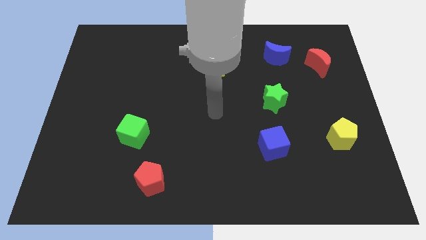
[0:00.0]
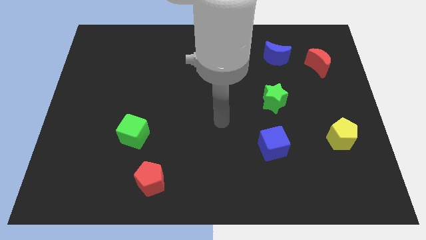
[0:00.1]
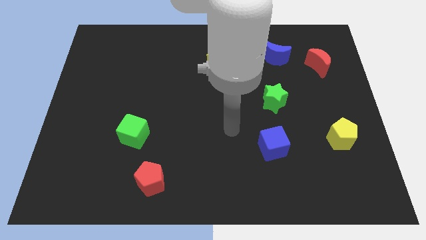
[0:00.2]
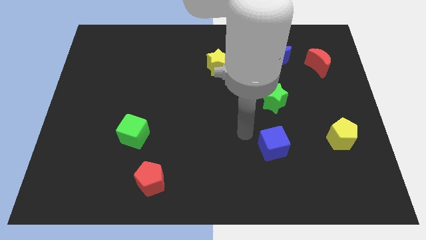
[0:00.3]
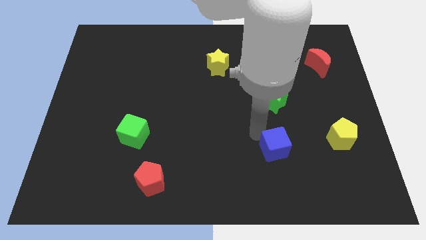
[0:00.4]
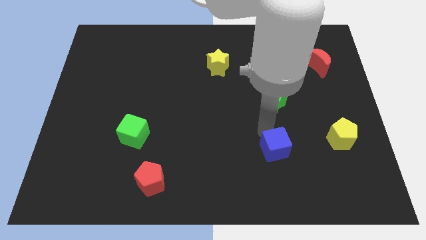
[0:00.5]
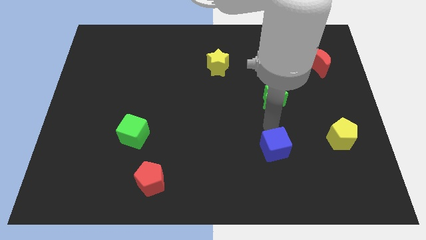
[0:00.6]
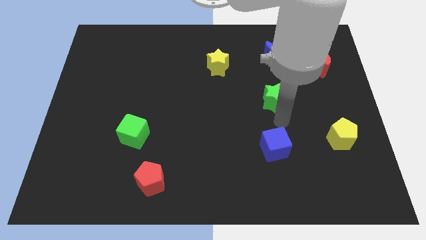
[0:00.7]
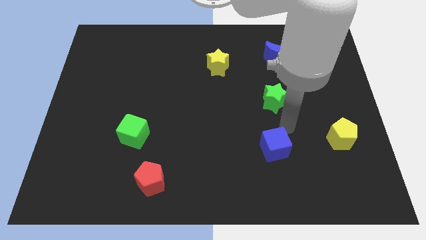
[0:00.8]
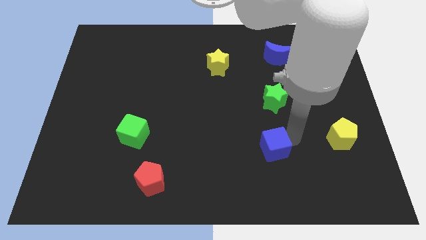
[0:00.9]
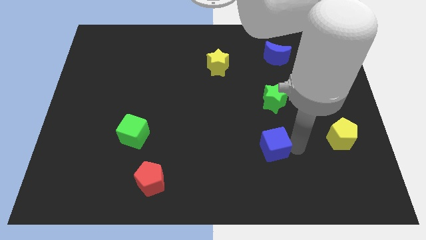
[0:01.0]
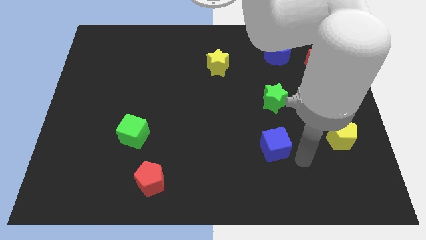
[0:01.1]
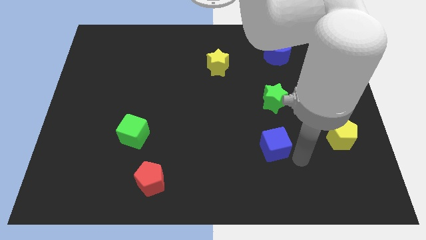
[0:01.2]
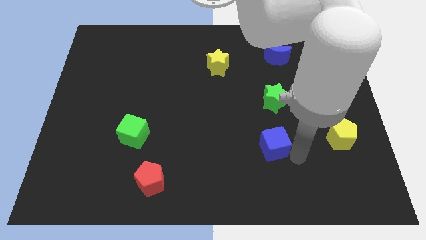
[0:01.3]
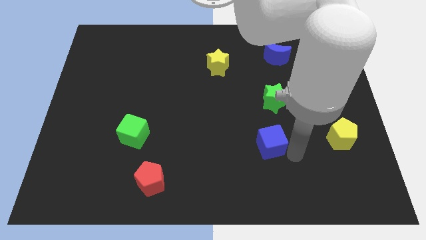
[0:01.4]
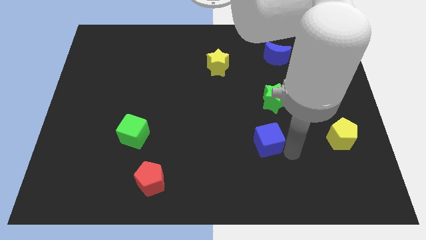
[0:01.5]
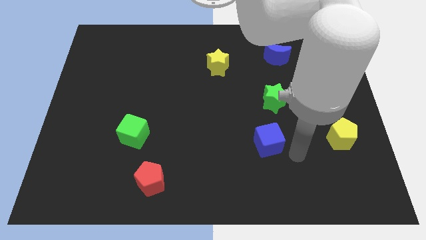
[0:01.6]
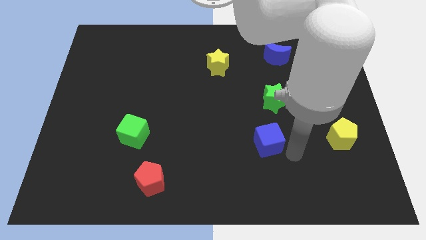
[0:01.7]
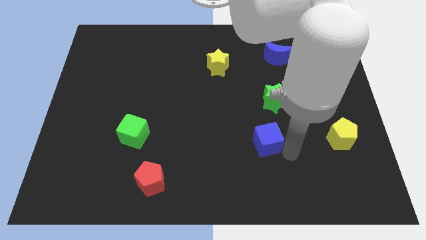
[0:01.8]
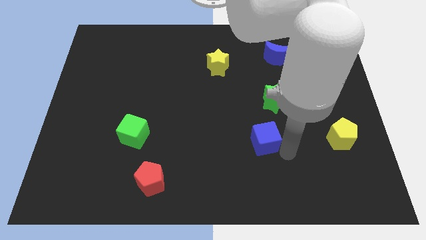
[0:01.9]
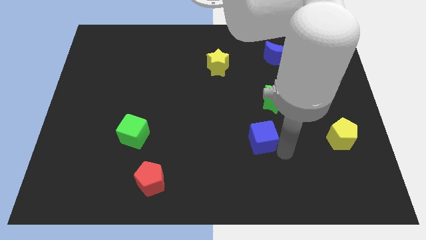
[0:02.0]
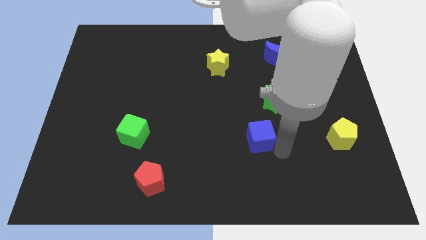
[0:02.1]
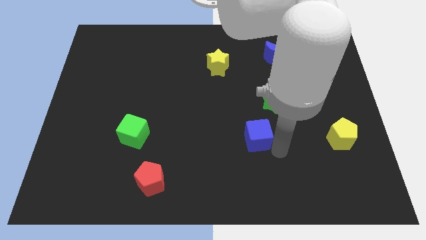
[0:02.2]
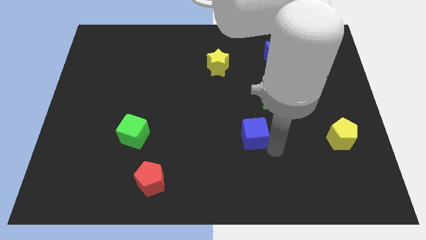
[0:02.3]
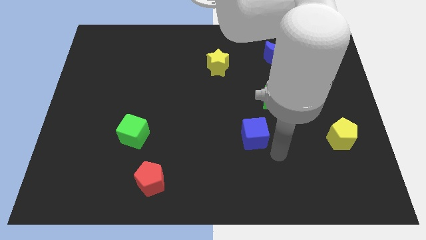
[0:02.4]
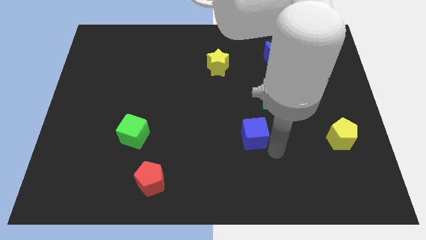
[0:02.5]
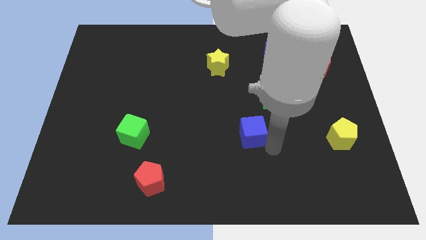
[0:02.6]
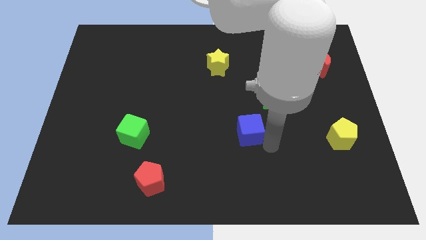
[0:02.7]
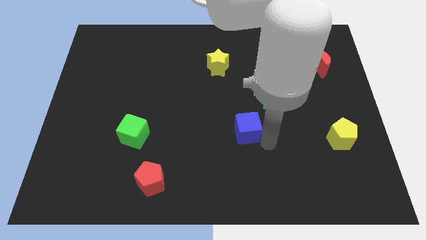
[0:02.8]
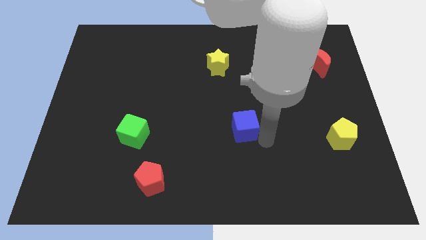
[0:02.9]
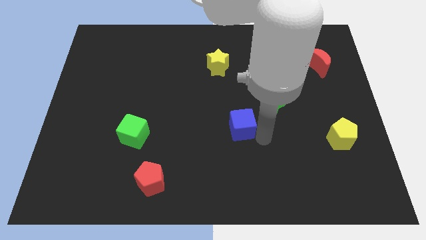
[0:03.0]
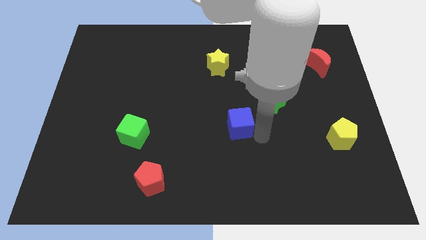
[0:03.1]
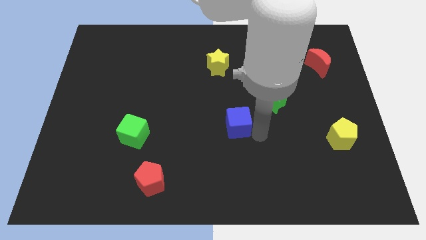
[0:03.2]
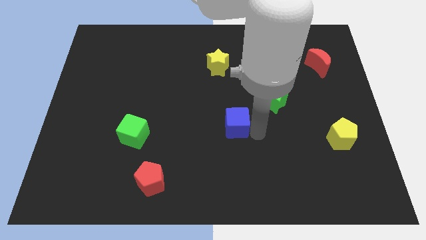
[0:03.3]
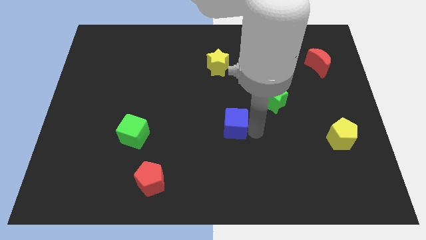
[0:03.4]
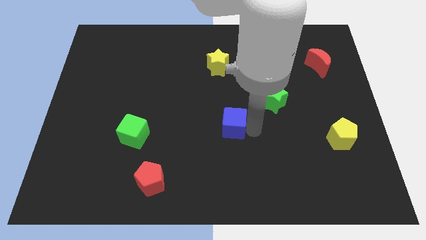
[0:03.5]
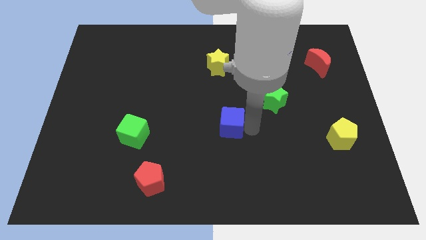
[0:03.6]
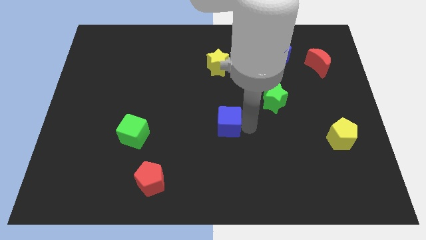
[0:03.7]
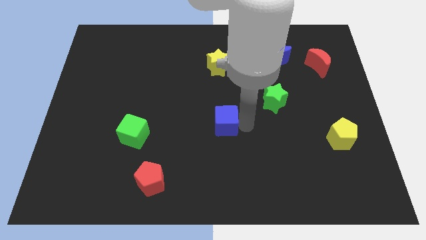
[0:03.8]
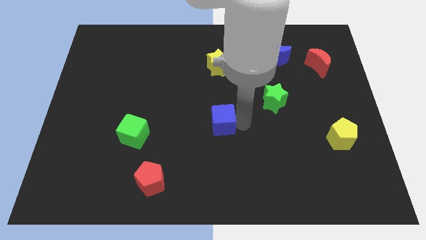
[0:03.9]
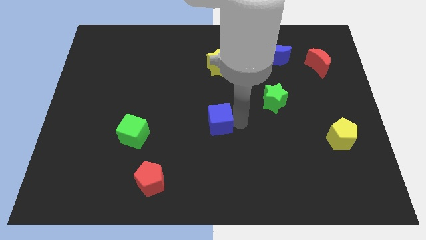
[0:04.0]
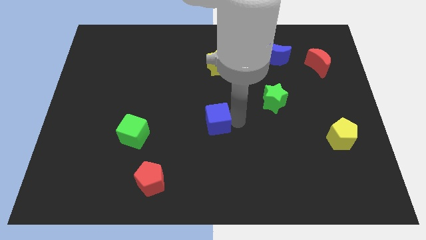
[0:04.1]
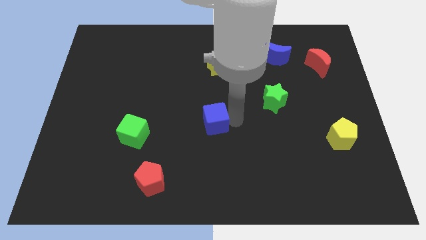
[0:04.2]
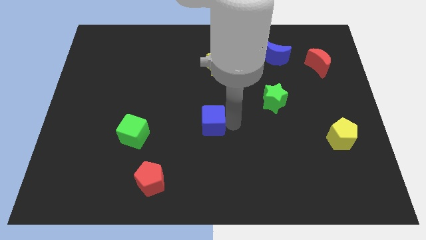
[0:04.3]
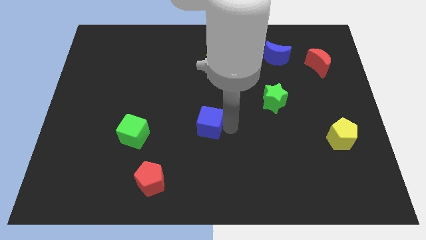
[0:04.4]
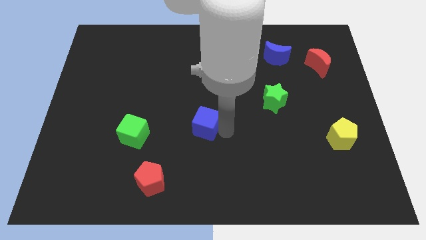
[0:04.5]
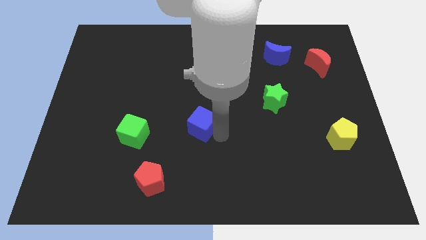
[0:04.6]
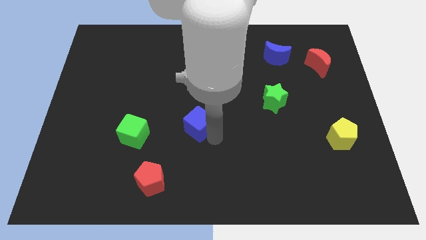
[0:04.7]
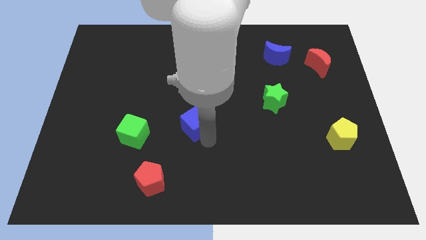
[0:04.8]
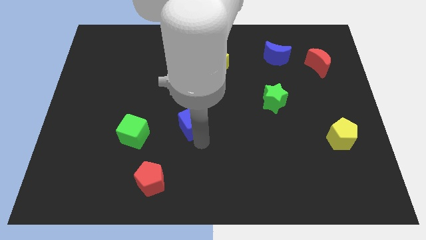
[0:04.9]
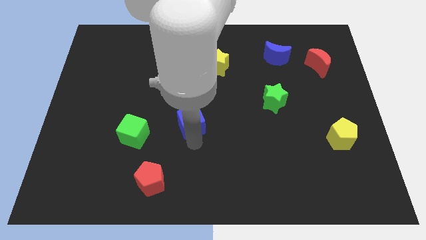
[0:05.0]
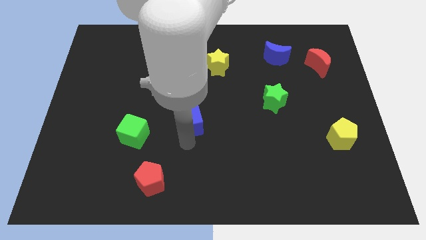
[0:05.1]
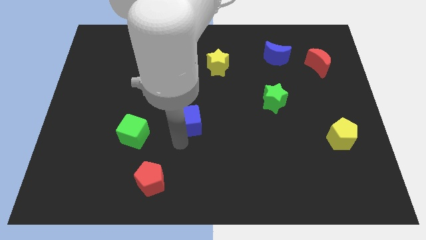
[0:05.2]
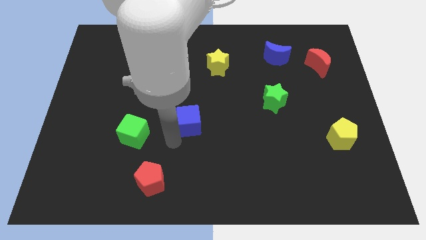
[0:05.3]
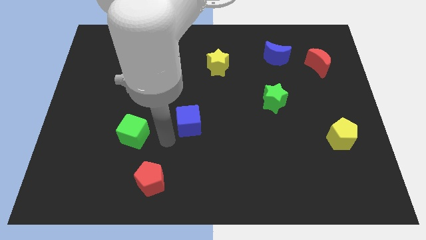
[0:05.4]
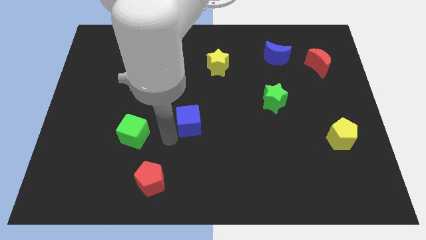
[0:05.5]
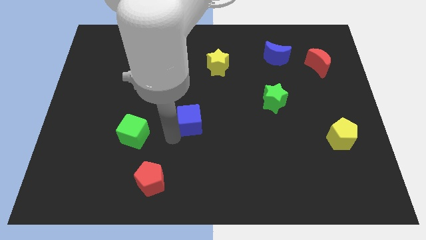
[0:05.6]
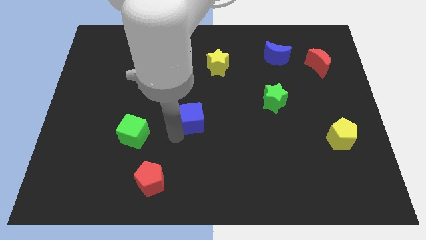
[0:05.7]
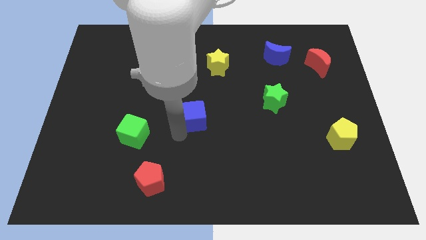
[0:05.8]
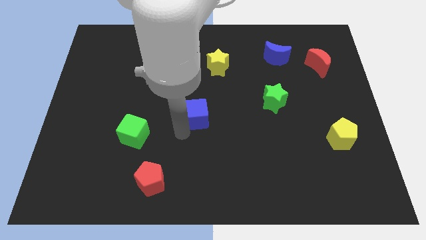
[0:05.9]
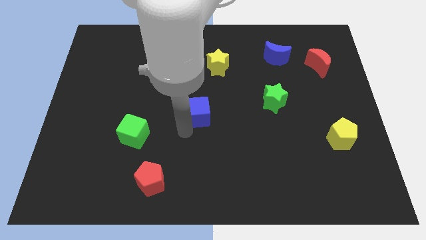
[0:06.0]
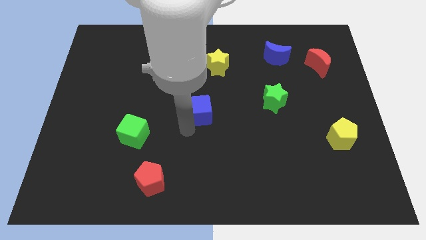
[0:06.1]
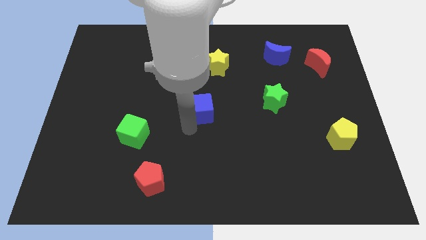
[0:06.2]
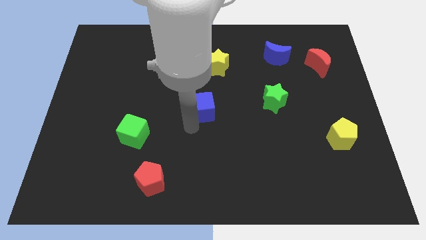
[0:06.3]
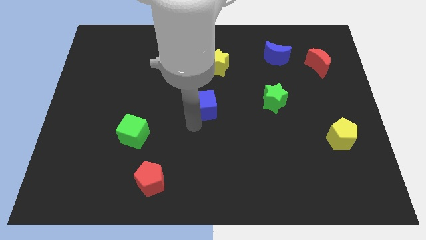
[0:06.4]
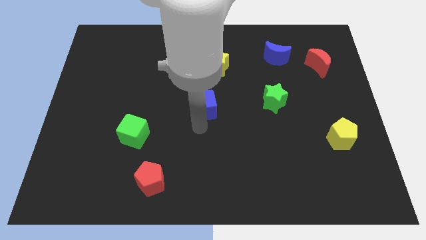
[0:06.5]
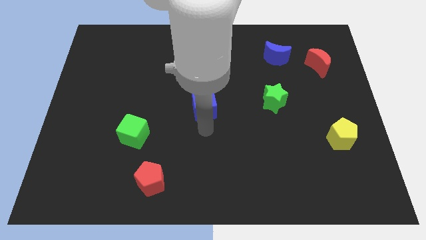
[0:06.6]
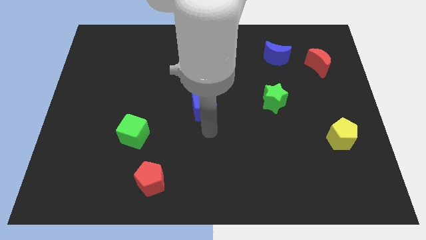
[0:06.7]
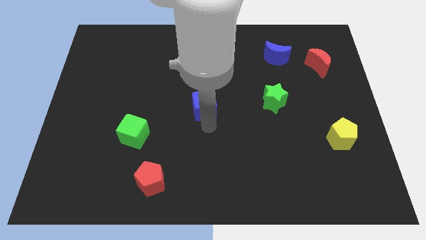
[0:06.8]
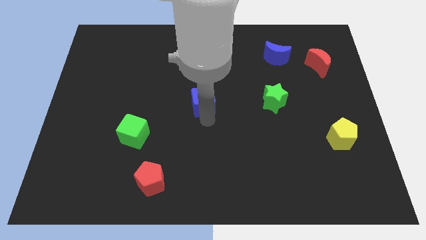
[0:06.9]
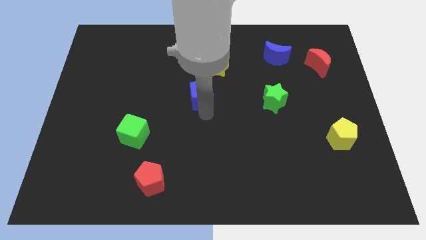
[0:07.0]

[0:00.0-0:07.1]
move the blue cube up and to the left

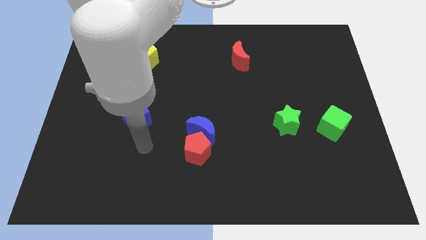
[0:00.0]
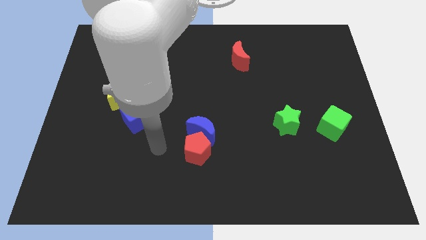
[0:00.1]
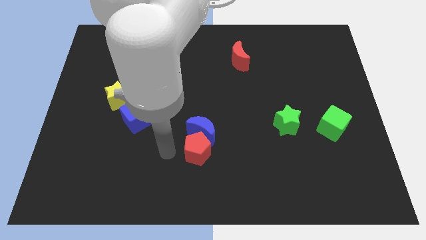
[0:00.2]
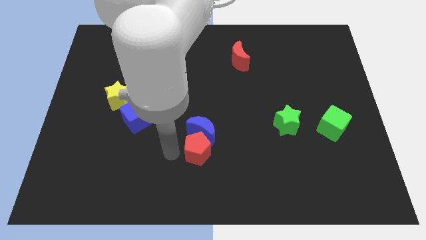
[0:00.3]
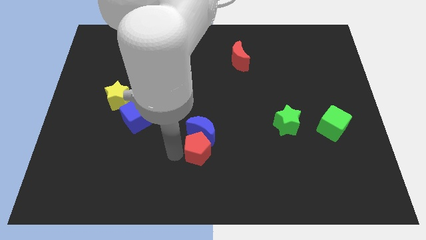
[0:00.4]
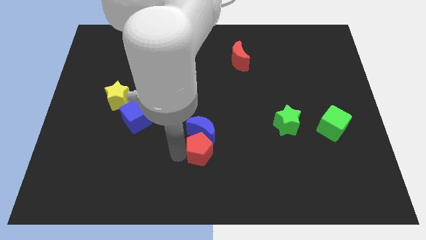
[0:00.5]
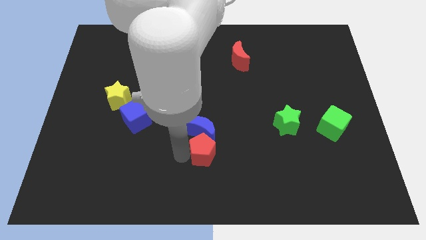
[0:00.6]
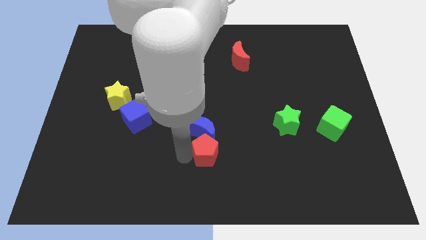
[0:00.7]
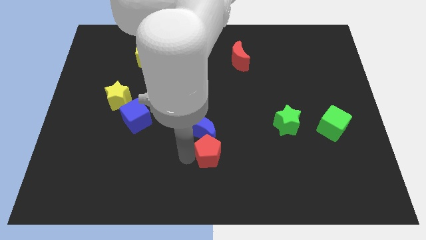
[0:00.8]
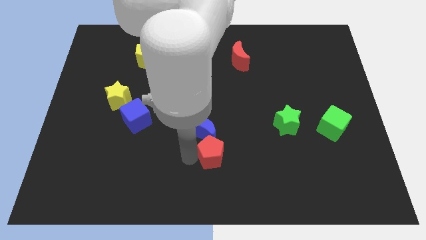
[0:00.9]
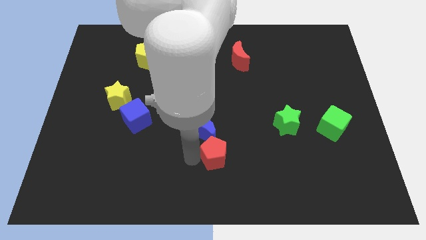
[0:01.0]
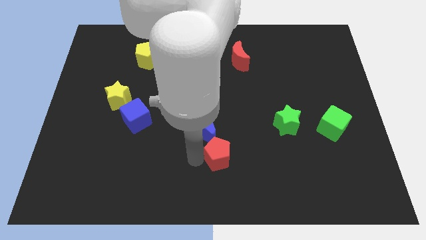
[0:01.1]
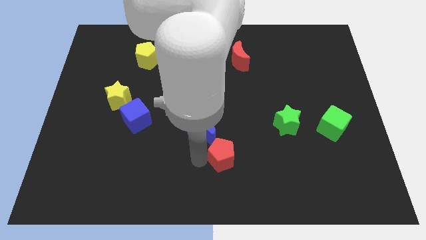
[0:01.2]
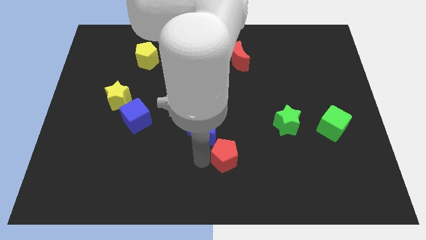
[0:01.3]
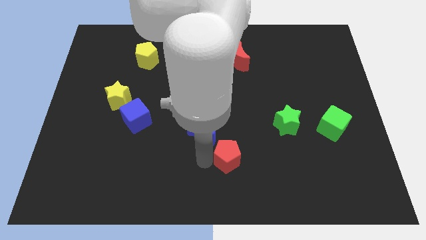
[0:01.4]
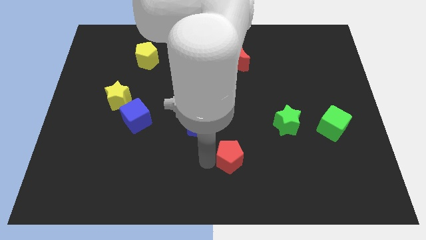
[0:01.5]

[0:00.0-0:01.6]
slightly move the red pentagon right
